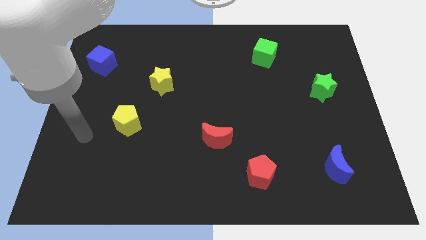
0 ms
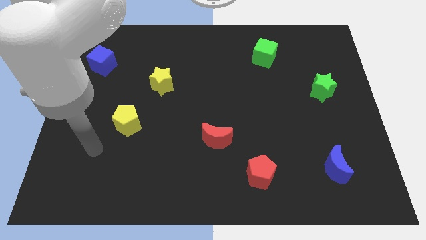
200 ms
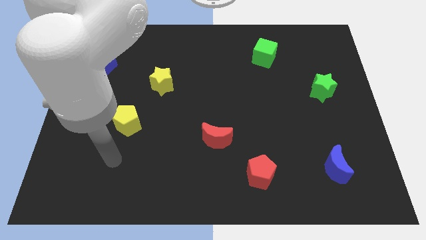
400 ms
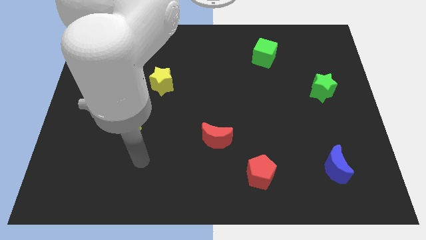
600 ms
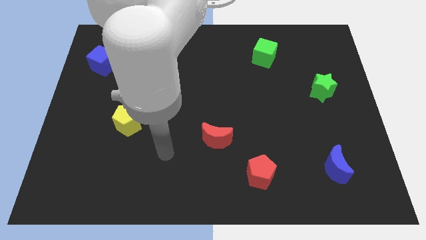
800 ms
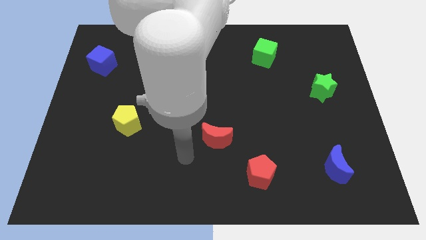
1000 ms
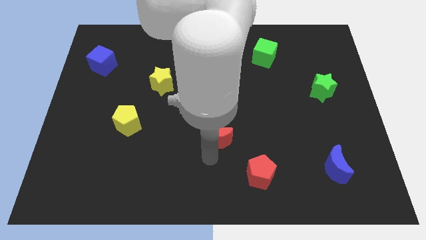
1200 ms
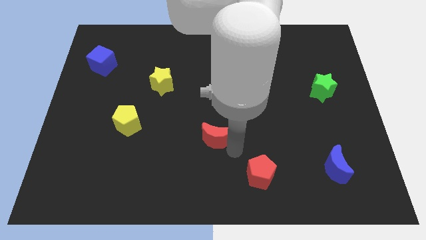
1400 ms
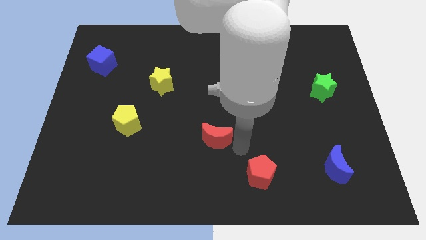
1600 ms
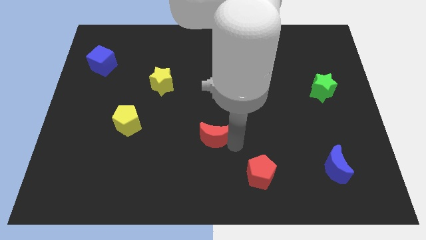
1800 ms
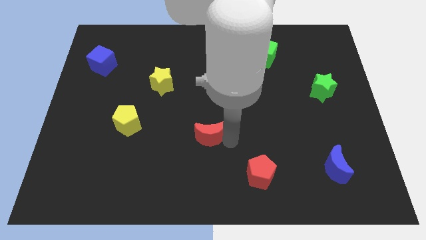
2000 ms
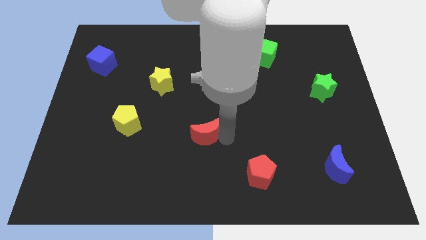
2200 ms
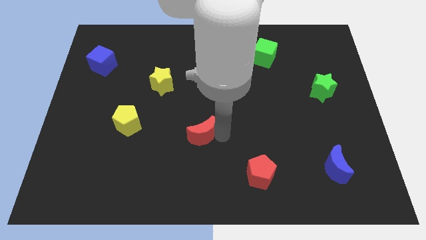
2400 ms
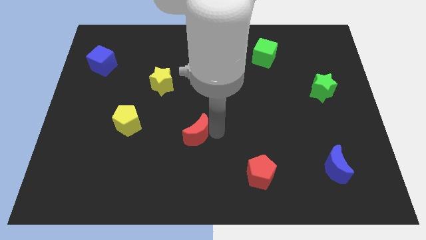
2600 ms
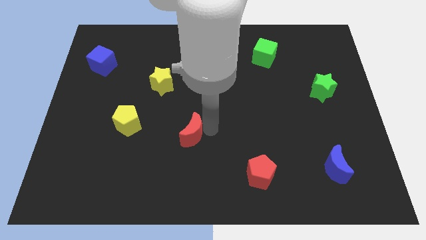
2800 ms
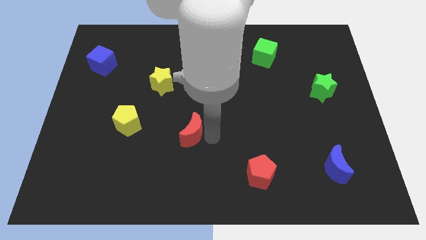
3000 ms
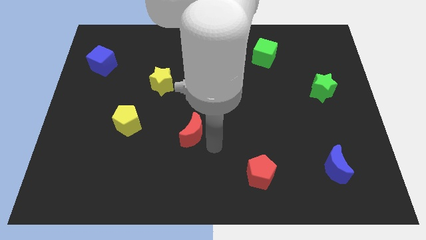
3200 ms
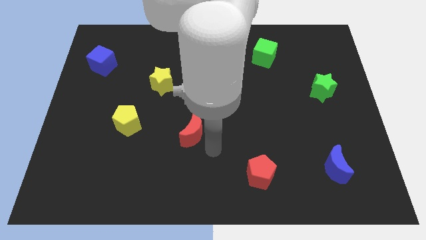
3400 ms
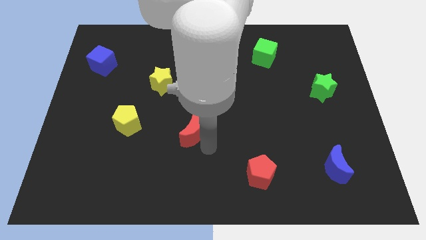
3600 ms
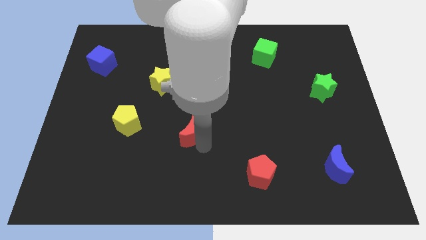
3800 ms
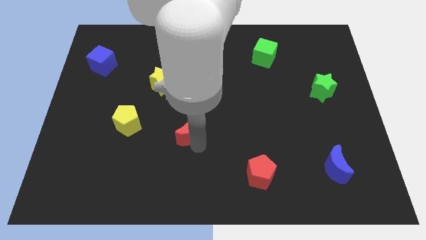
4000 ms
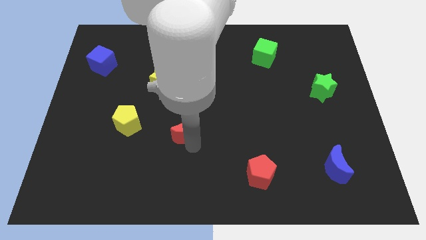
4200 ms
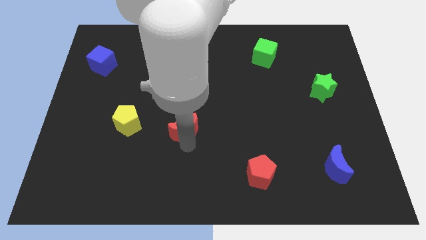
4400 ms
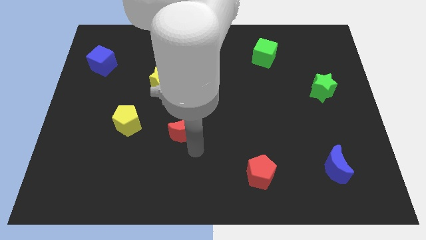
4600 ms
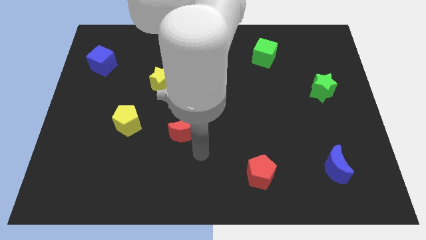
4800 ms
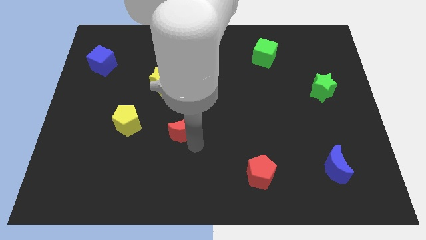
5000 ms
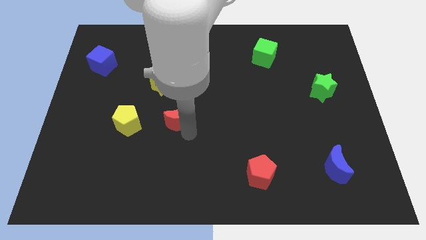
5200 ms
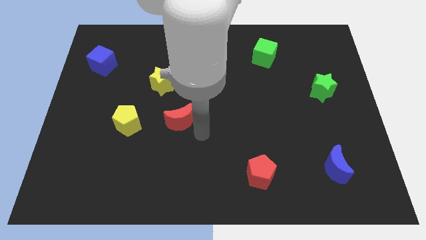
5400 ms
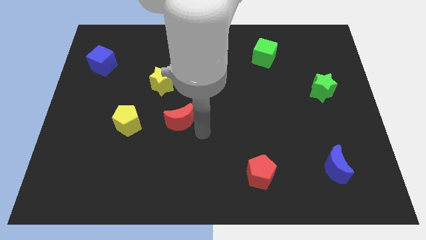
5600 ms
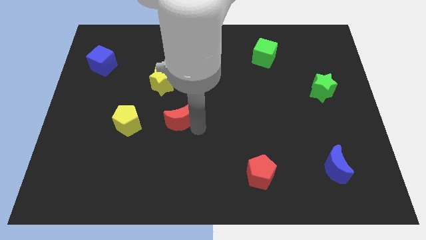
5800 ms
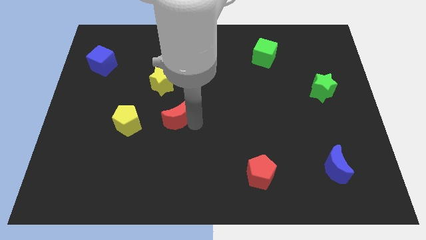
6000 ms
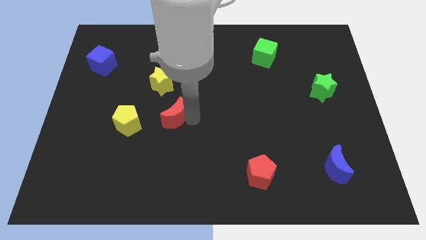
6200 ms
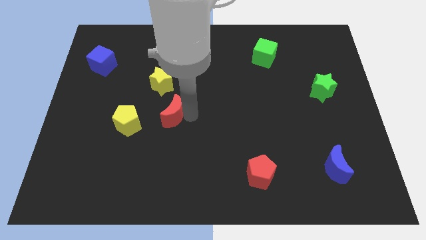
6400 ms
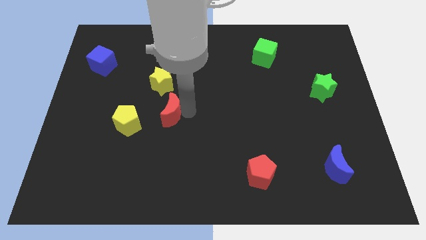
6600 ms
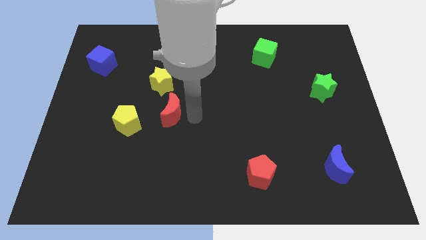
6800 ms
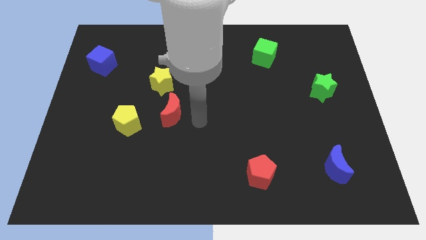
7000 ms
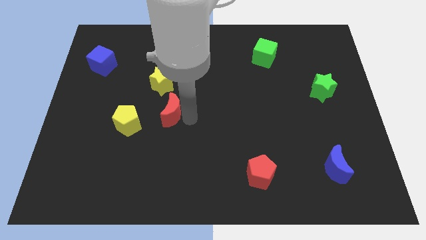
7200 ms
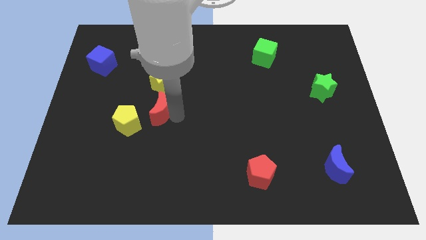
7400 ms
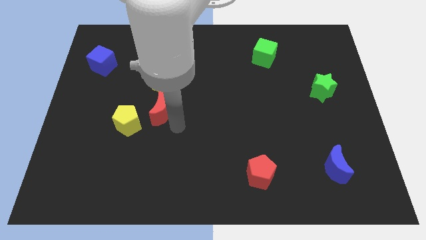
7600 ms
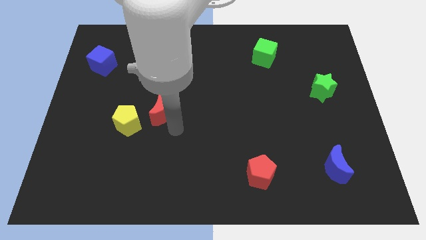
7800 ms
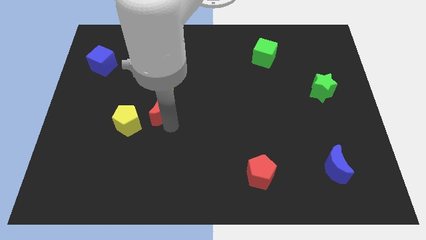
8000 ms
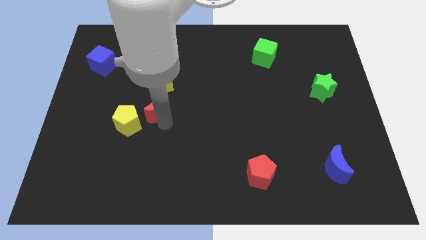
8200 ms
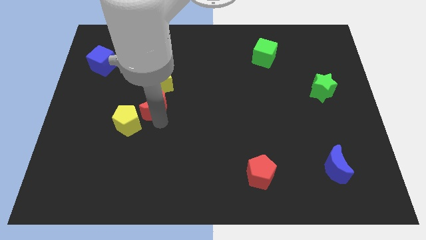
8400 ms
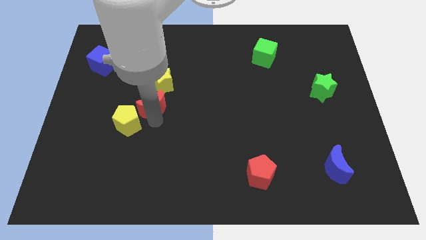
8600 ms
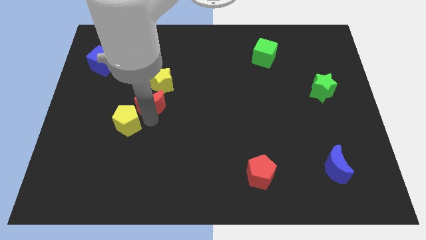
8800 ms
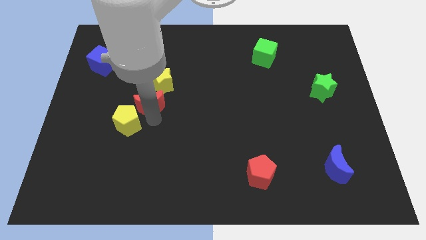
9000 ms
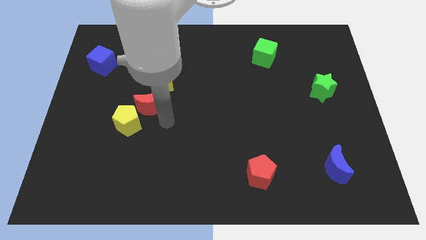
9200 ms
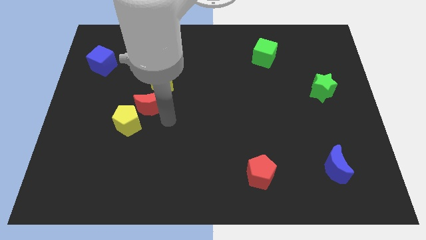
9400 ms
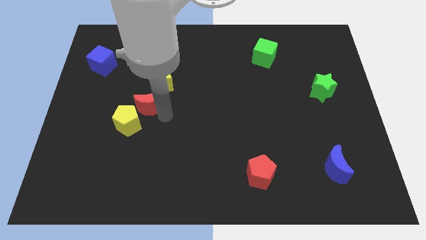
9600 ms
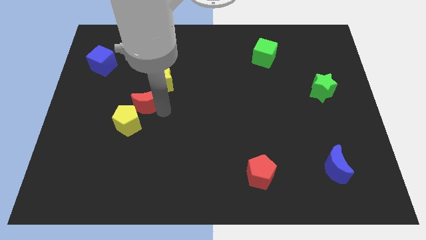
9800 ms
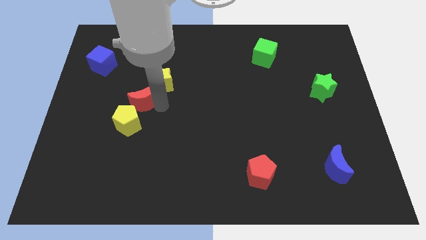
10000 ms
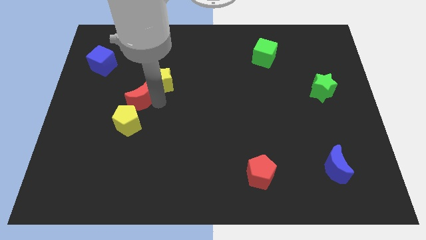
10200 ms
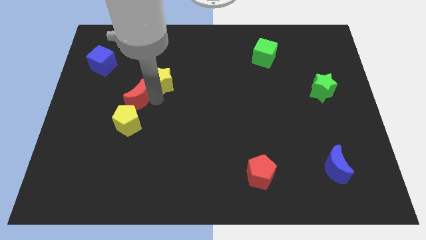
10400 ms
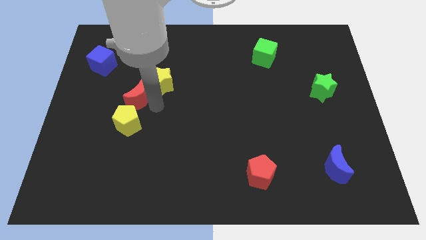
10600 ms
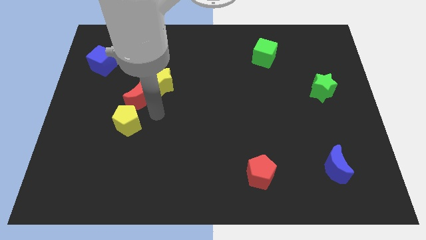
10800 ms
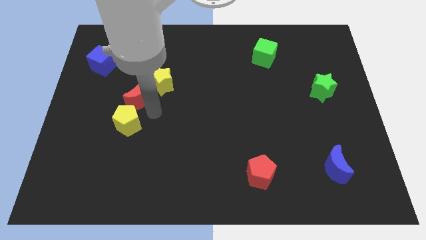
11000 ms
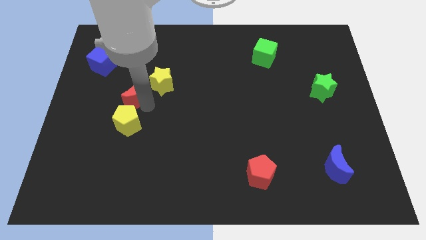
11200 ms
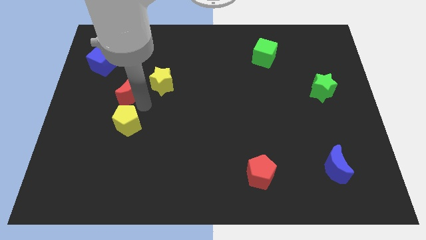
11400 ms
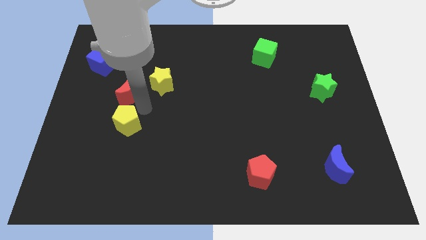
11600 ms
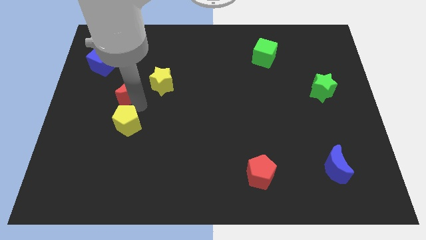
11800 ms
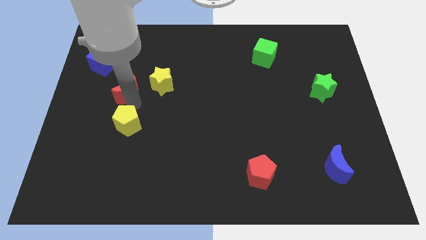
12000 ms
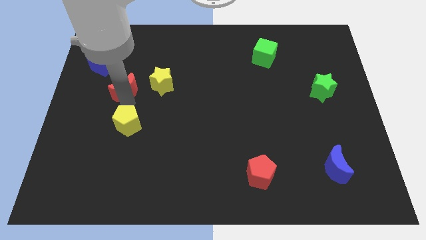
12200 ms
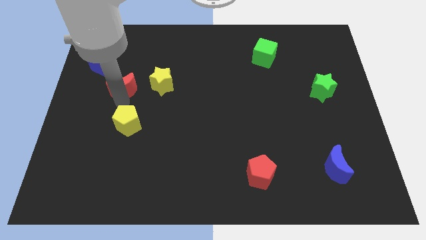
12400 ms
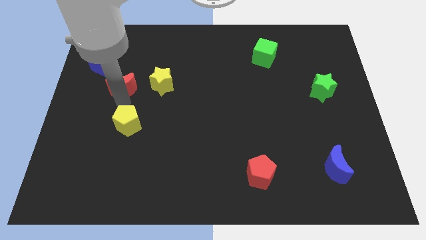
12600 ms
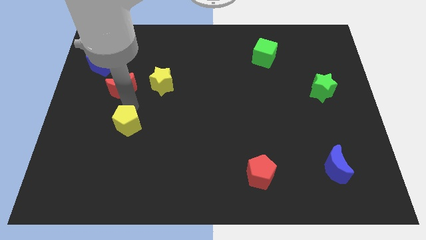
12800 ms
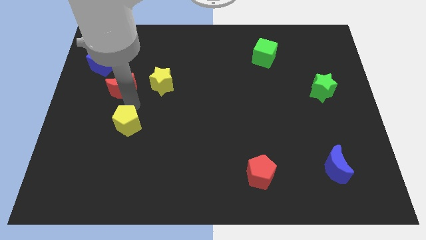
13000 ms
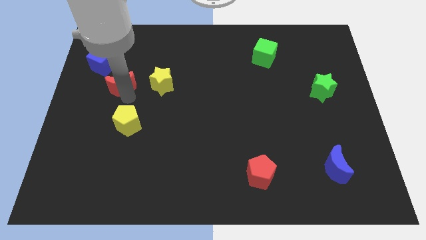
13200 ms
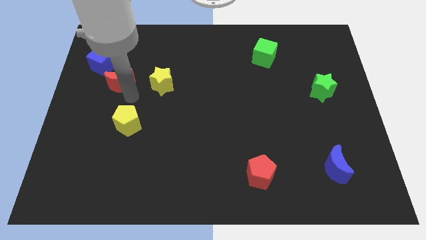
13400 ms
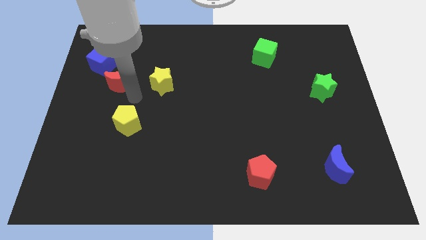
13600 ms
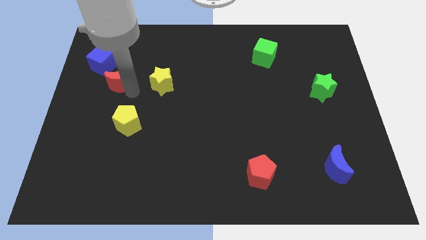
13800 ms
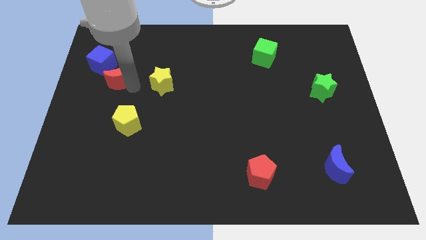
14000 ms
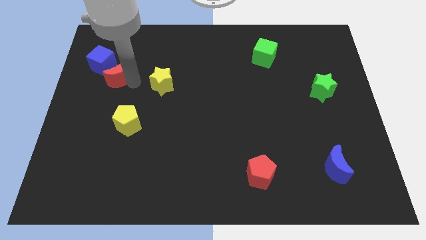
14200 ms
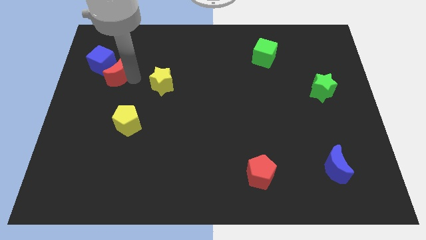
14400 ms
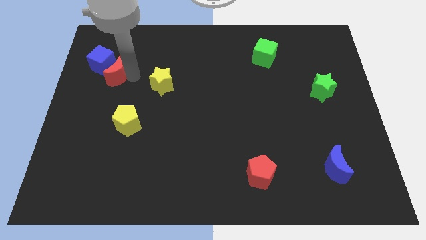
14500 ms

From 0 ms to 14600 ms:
slide the red moon towards the blue cube
